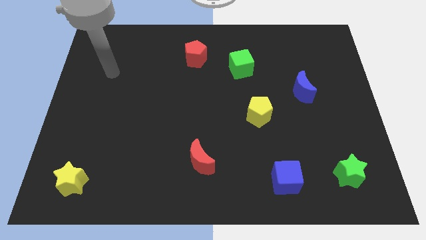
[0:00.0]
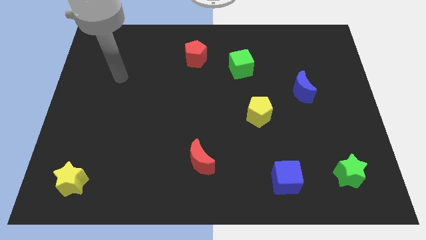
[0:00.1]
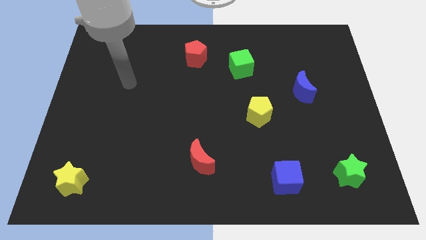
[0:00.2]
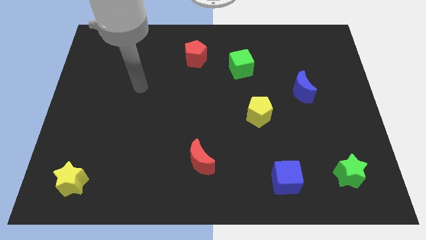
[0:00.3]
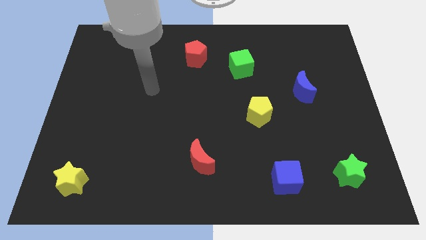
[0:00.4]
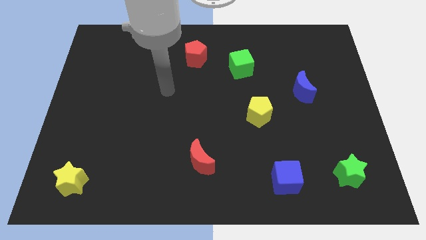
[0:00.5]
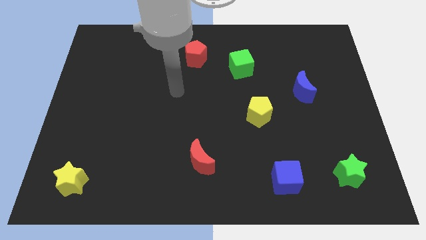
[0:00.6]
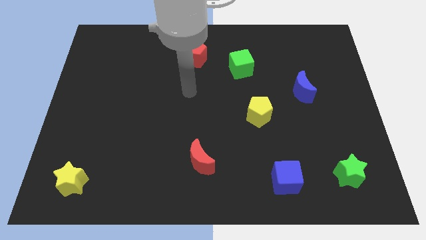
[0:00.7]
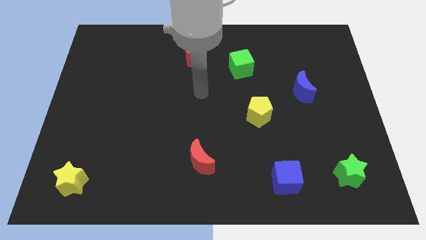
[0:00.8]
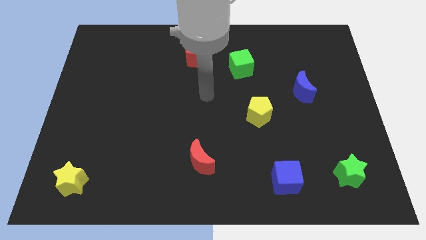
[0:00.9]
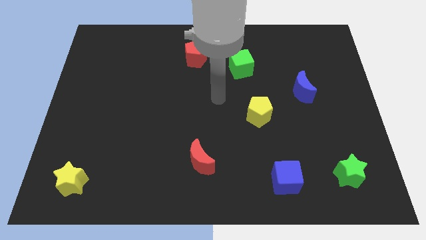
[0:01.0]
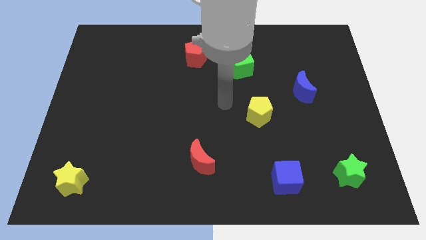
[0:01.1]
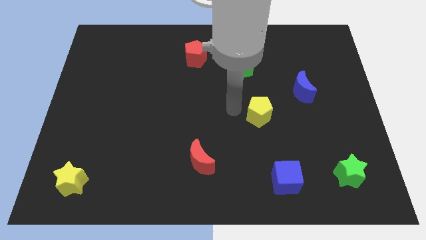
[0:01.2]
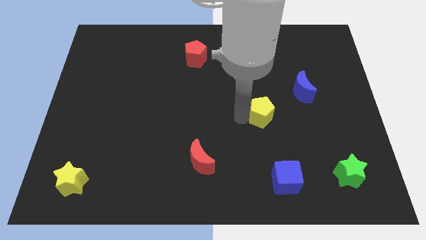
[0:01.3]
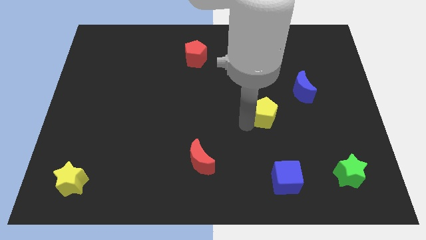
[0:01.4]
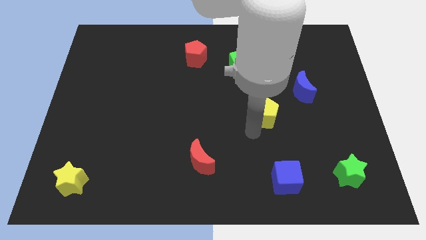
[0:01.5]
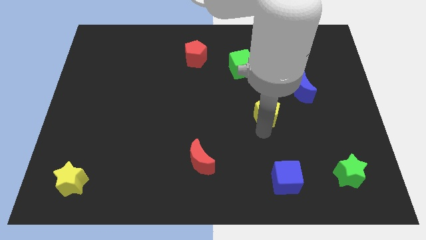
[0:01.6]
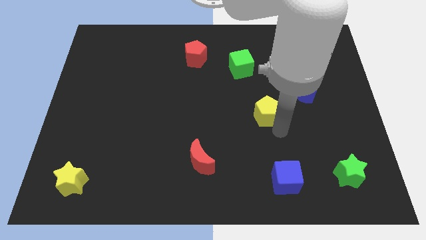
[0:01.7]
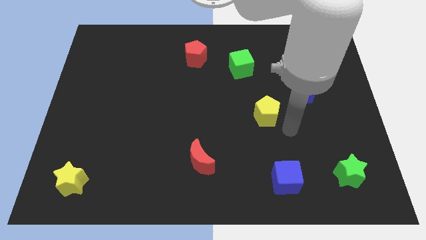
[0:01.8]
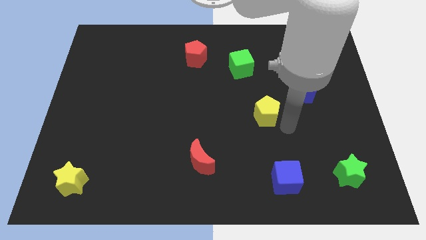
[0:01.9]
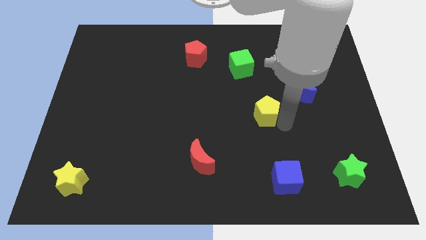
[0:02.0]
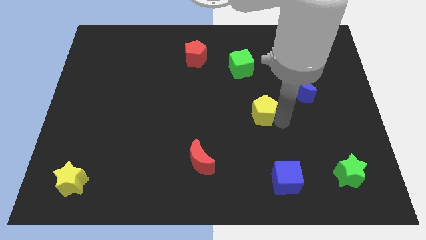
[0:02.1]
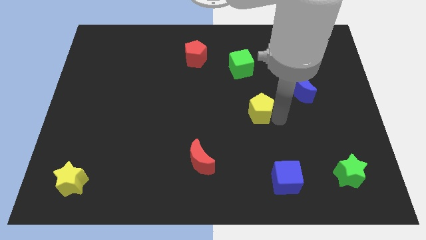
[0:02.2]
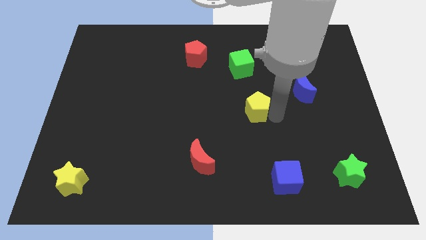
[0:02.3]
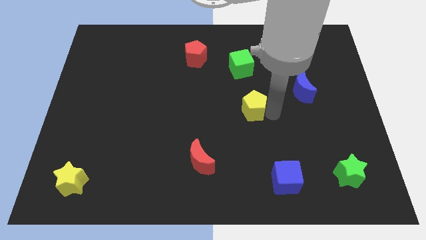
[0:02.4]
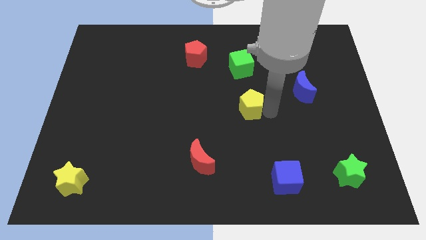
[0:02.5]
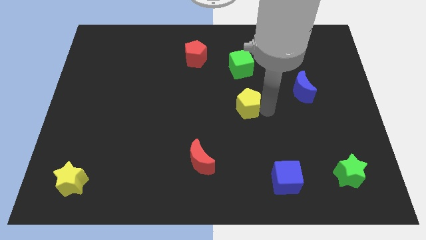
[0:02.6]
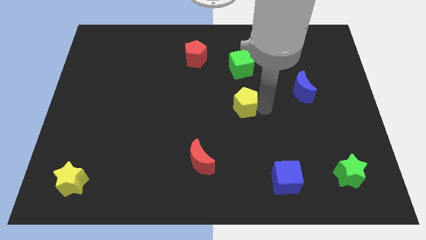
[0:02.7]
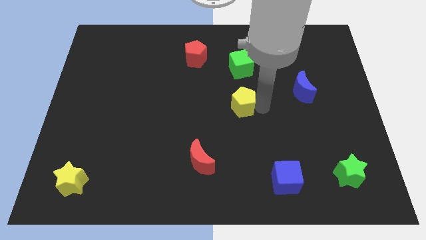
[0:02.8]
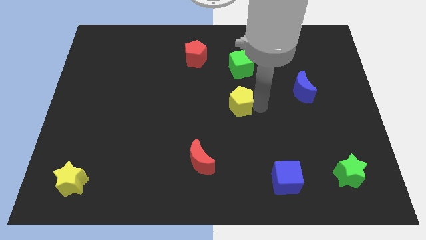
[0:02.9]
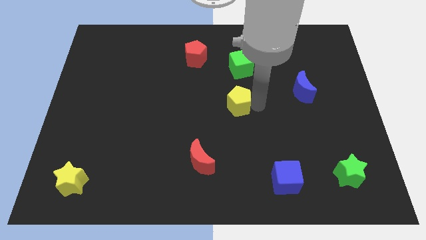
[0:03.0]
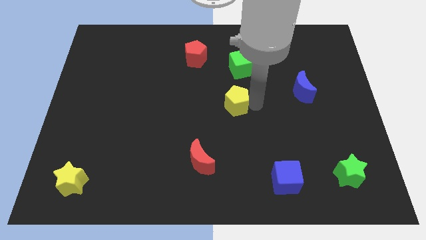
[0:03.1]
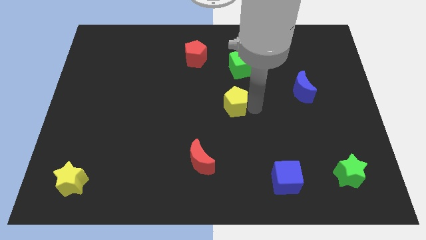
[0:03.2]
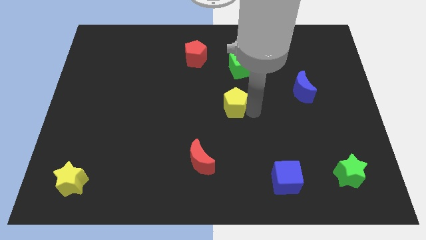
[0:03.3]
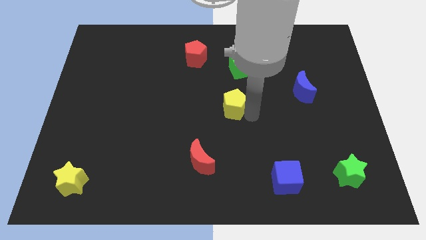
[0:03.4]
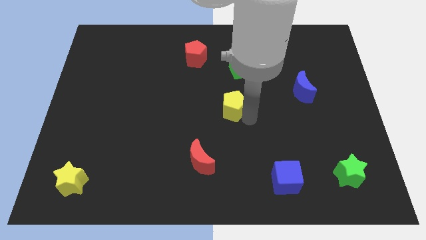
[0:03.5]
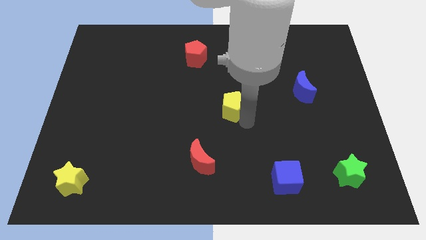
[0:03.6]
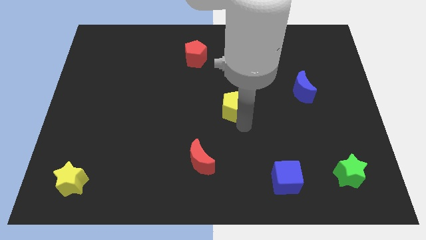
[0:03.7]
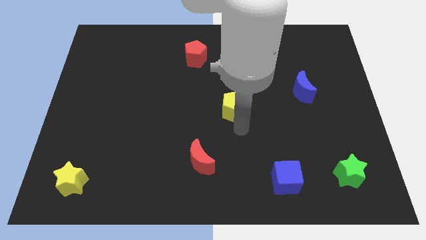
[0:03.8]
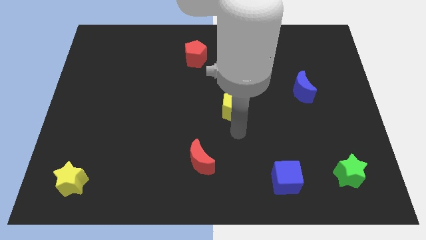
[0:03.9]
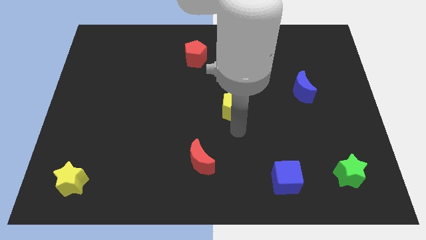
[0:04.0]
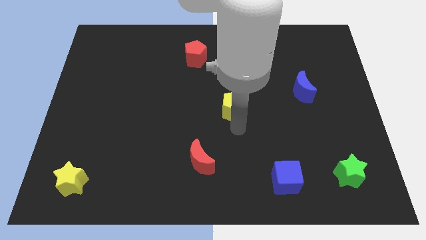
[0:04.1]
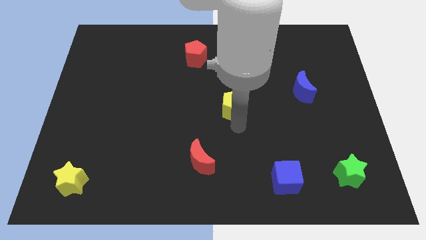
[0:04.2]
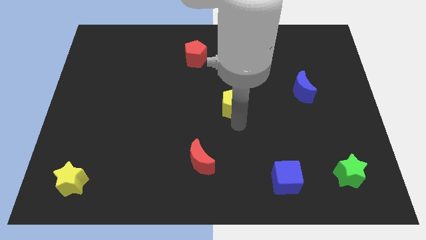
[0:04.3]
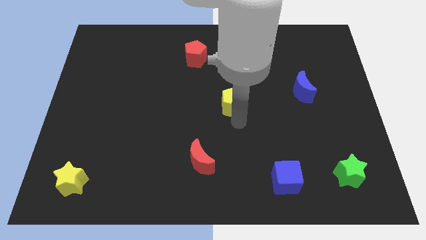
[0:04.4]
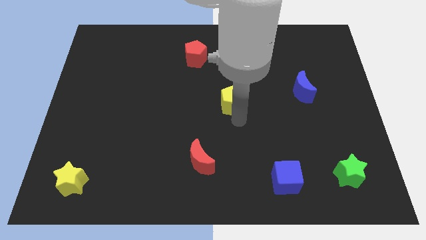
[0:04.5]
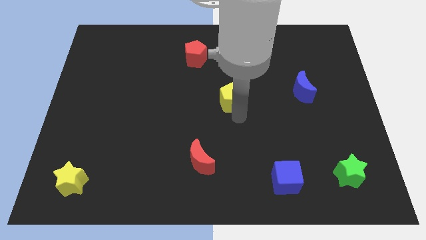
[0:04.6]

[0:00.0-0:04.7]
slightly slide the yellow pentagon upwards and to the left

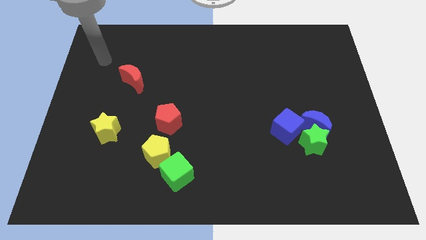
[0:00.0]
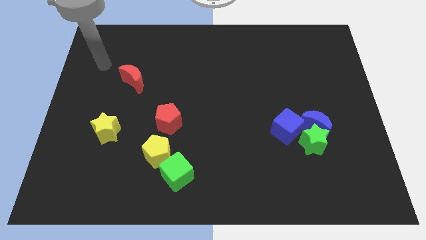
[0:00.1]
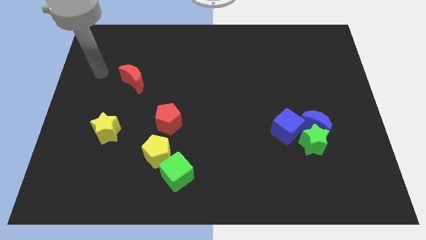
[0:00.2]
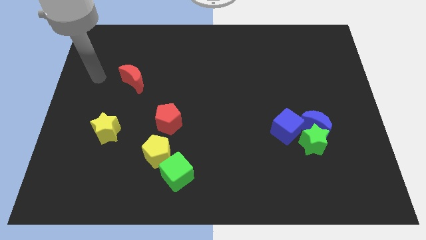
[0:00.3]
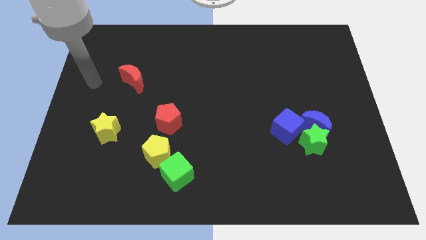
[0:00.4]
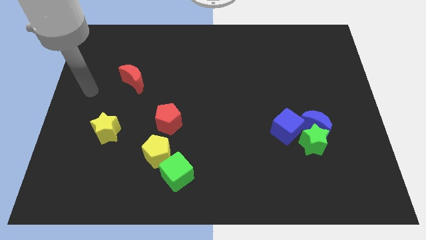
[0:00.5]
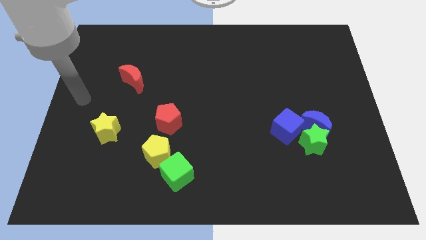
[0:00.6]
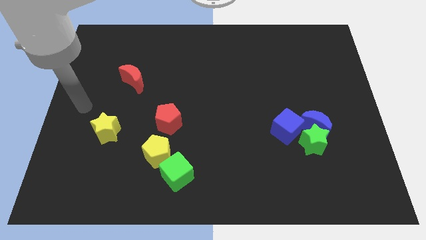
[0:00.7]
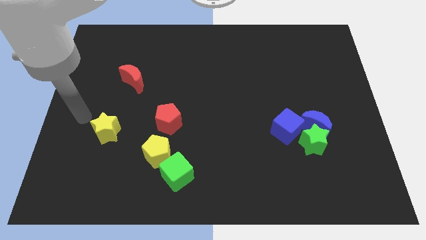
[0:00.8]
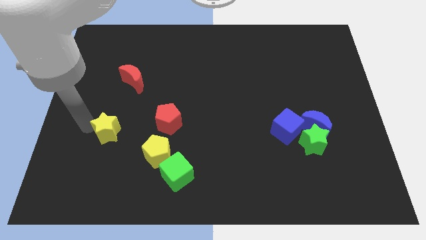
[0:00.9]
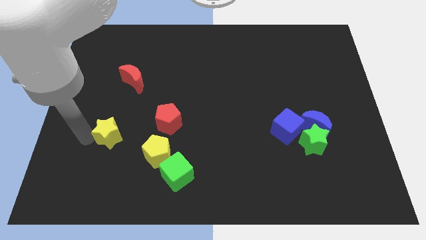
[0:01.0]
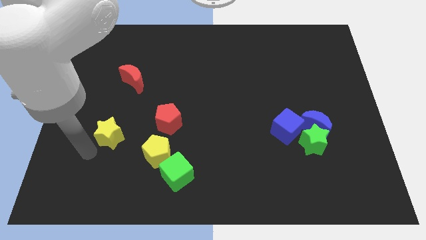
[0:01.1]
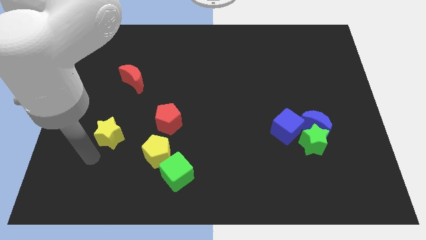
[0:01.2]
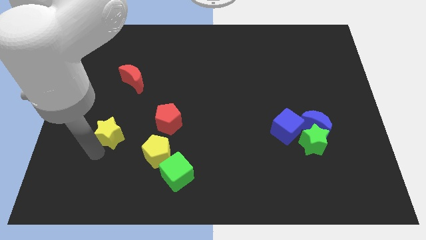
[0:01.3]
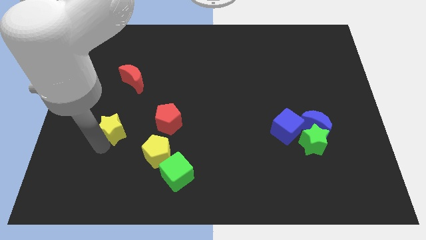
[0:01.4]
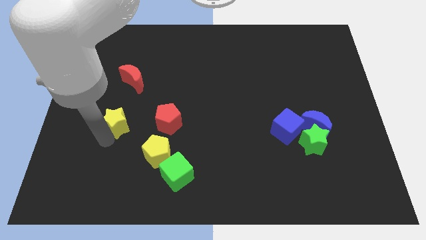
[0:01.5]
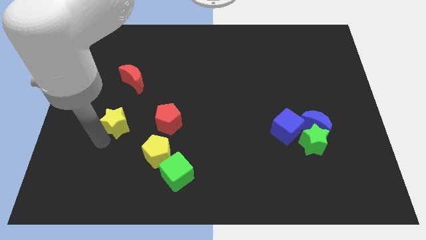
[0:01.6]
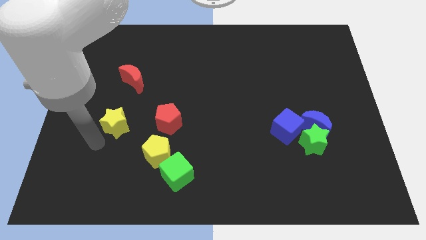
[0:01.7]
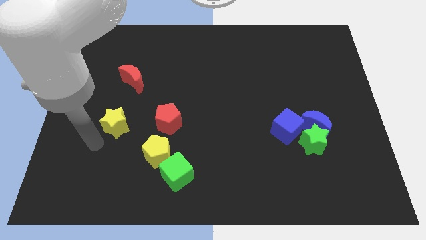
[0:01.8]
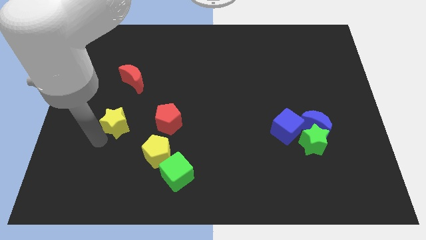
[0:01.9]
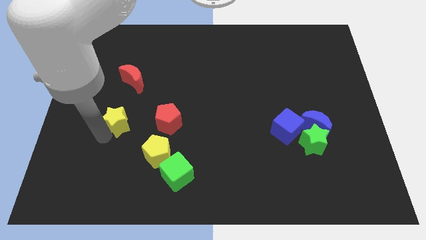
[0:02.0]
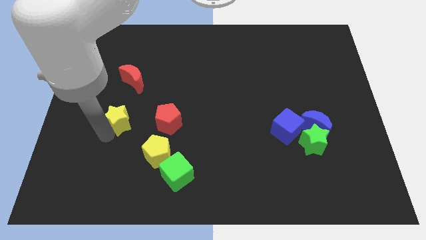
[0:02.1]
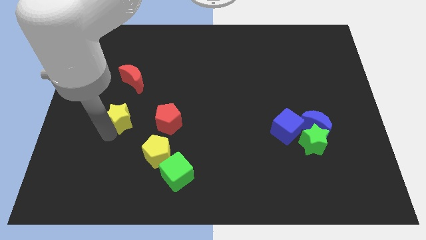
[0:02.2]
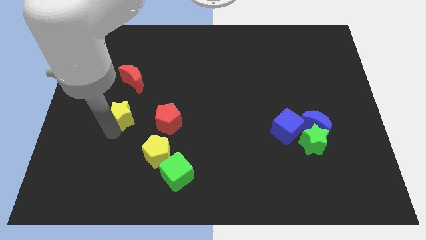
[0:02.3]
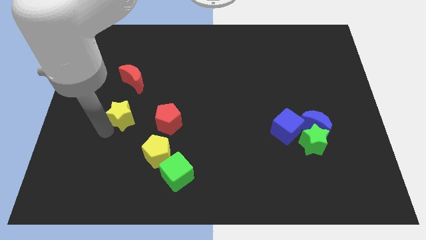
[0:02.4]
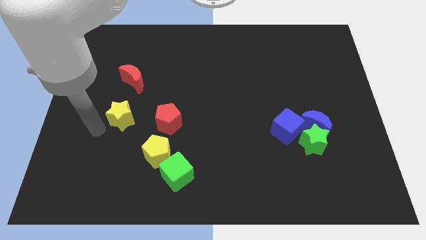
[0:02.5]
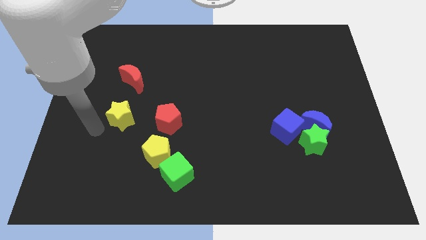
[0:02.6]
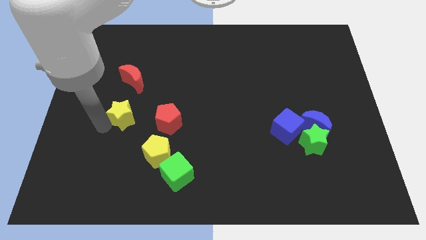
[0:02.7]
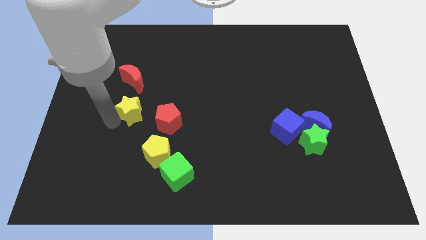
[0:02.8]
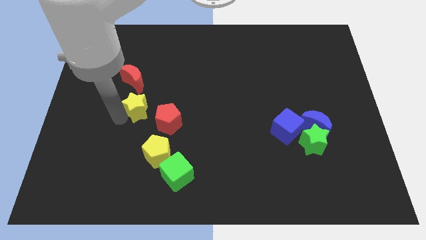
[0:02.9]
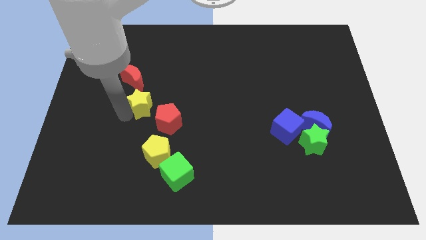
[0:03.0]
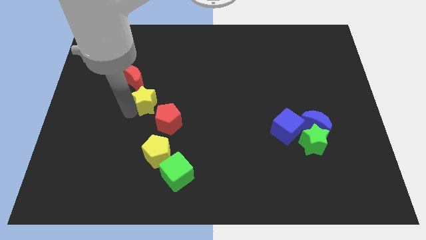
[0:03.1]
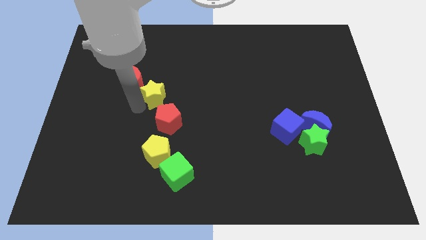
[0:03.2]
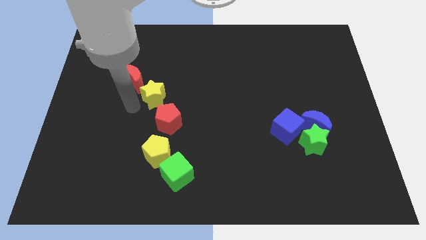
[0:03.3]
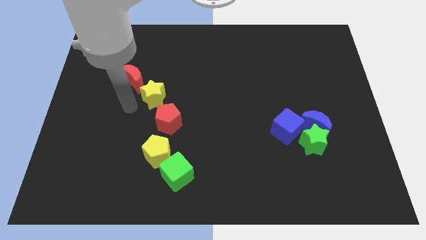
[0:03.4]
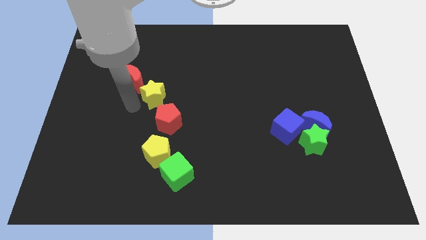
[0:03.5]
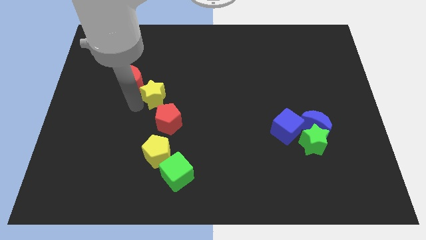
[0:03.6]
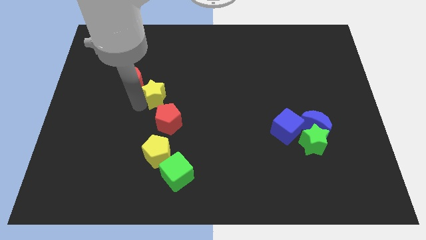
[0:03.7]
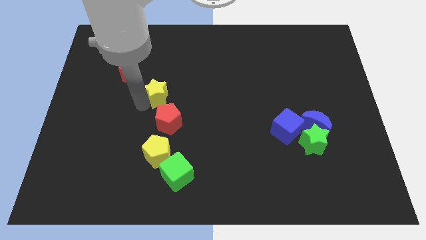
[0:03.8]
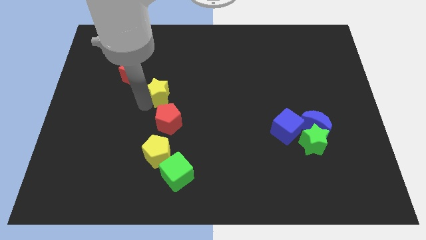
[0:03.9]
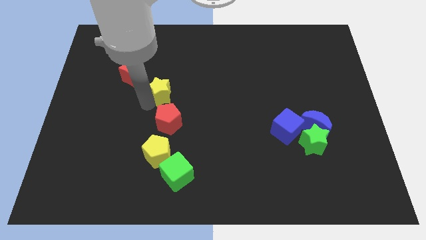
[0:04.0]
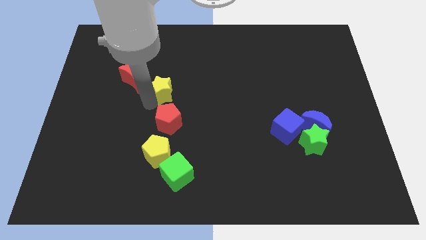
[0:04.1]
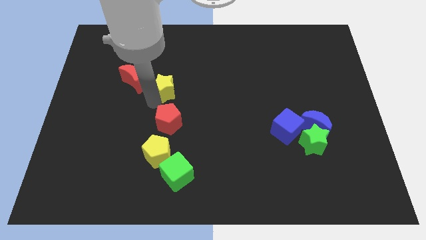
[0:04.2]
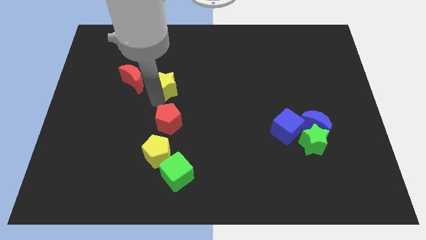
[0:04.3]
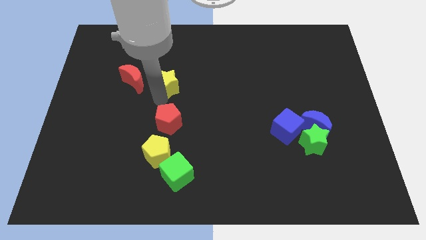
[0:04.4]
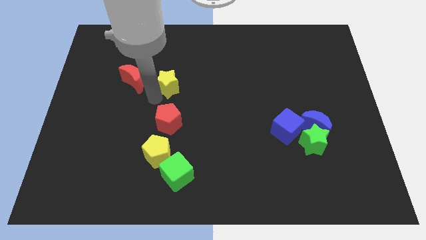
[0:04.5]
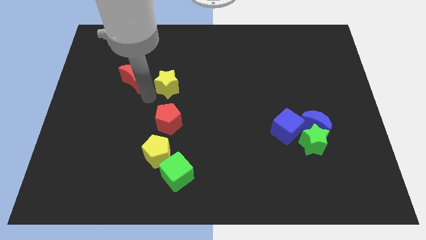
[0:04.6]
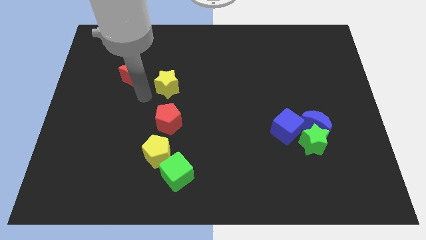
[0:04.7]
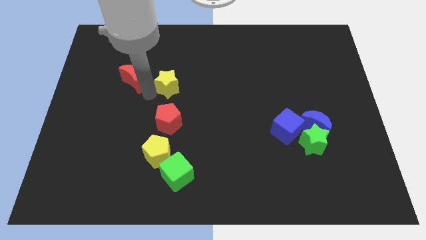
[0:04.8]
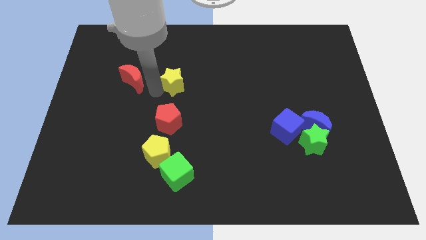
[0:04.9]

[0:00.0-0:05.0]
push the yellow star diagonally up and to the right
